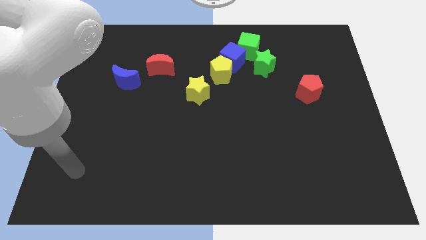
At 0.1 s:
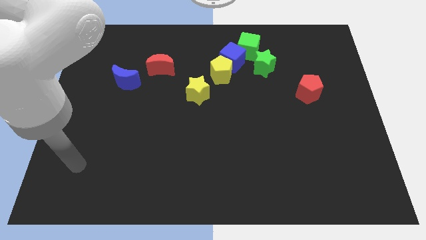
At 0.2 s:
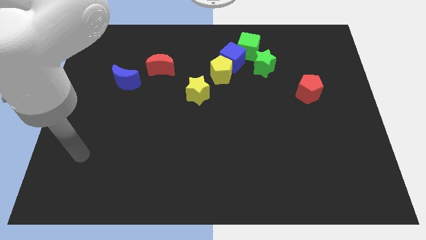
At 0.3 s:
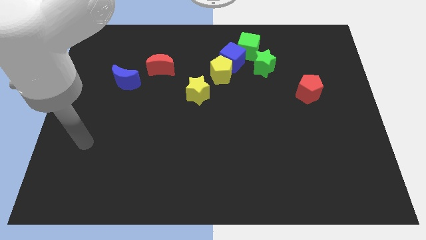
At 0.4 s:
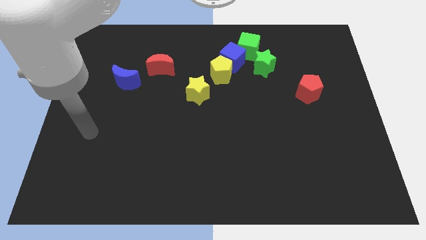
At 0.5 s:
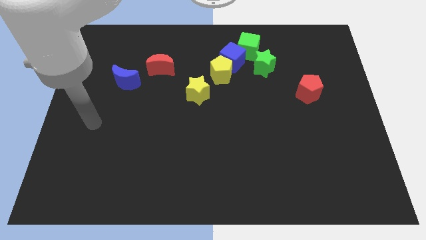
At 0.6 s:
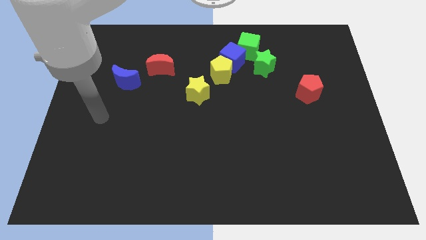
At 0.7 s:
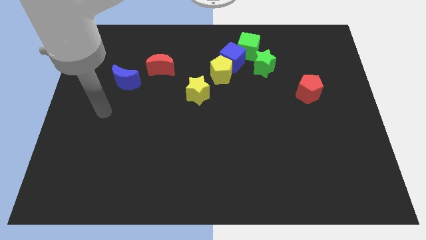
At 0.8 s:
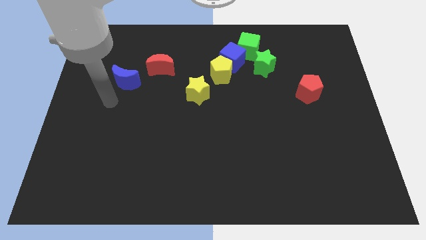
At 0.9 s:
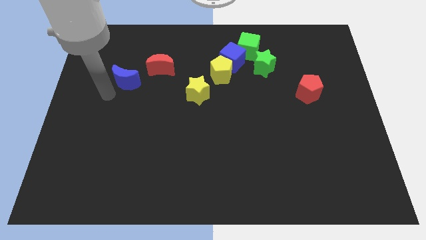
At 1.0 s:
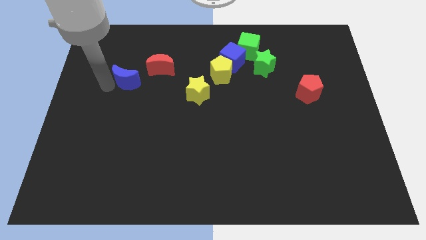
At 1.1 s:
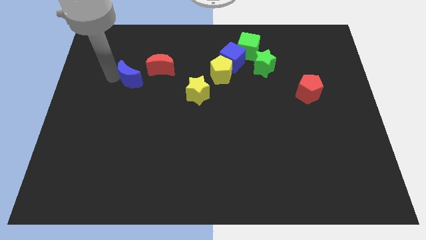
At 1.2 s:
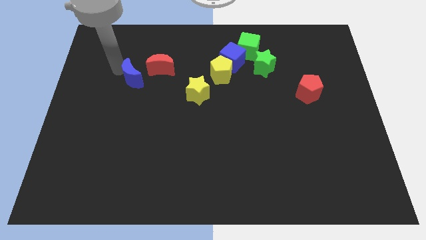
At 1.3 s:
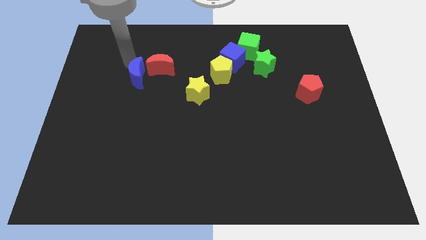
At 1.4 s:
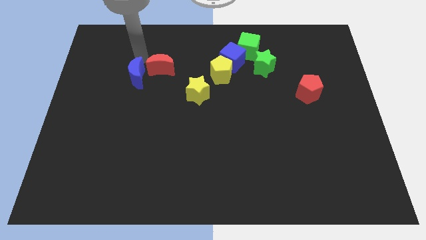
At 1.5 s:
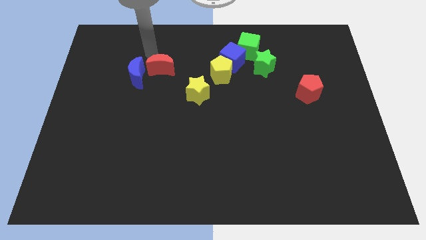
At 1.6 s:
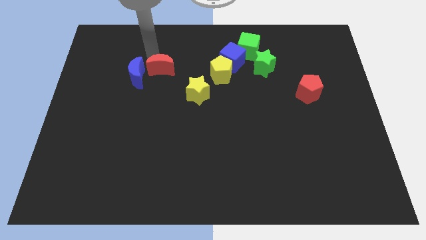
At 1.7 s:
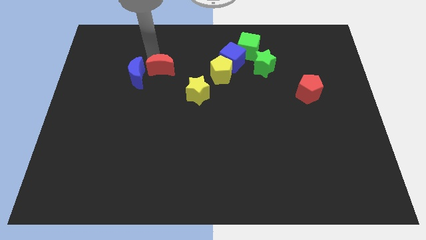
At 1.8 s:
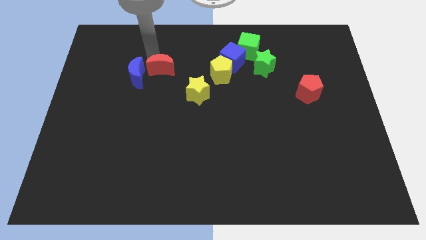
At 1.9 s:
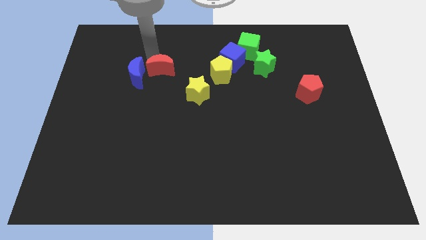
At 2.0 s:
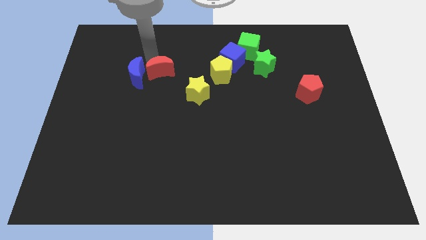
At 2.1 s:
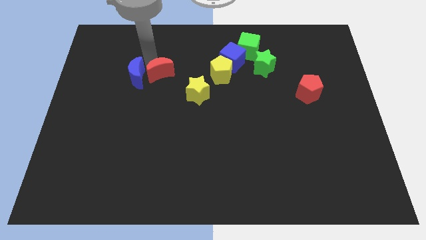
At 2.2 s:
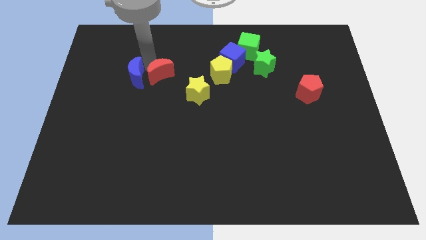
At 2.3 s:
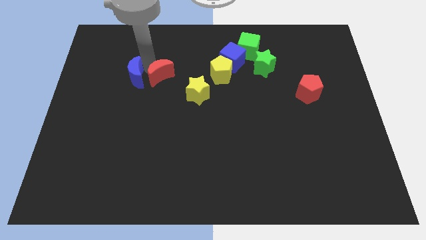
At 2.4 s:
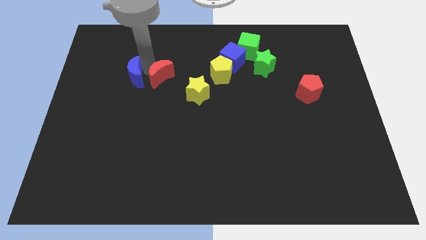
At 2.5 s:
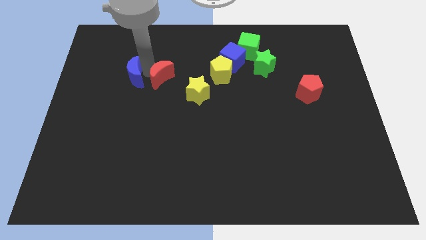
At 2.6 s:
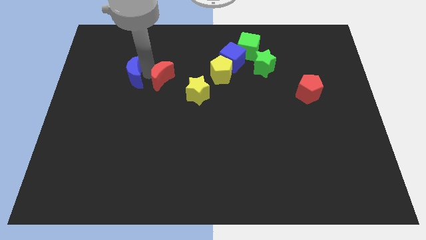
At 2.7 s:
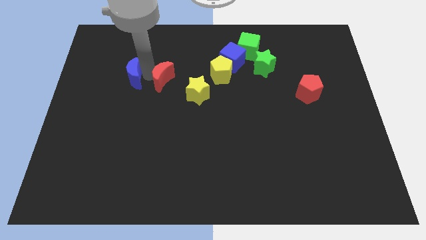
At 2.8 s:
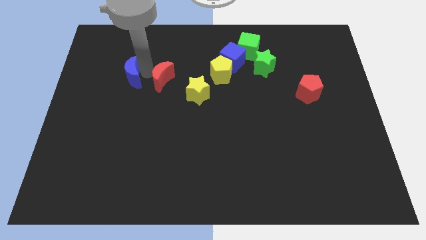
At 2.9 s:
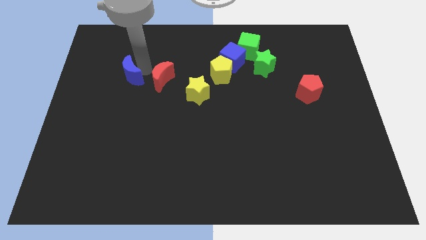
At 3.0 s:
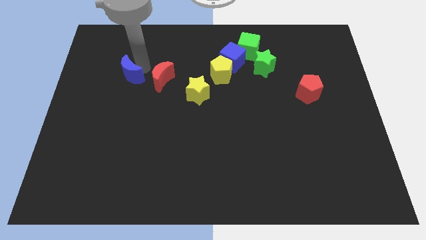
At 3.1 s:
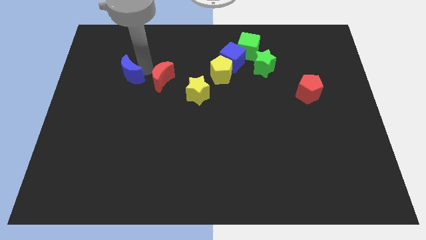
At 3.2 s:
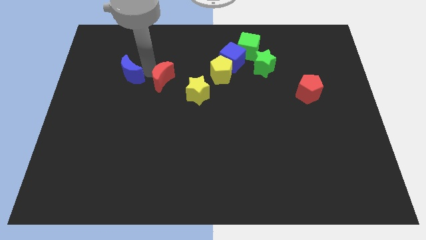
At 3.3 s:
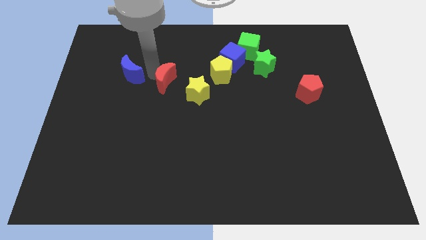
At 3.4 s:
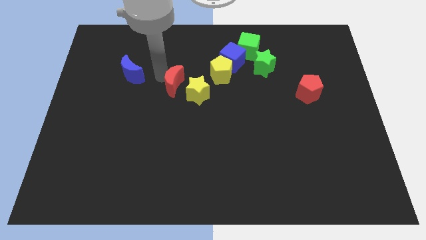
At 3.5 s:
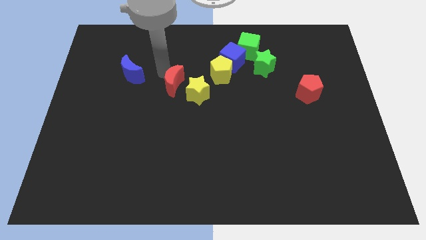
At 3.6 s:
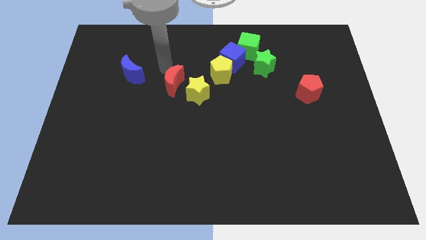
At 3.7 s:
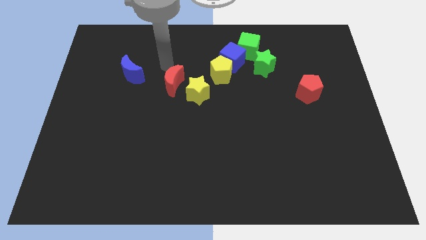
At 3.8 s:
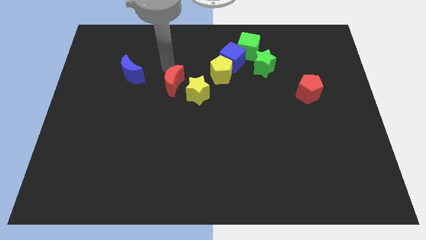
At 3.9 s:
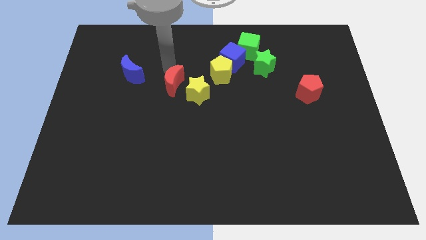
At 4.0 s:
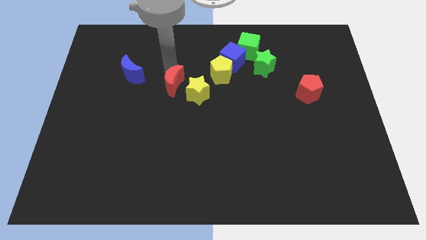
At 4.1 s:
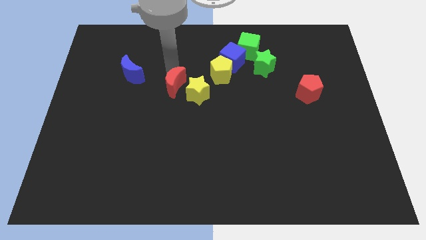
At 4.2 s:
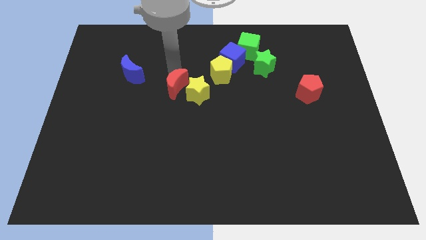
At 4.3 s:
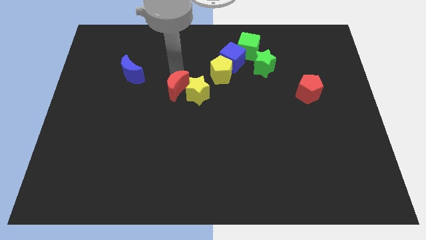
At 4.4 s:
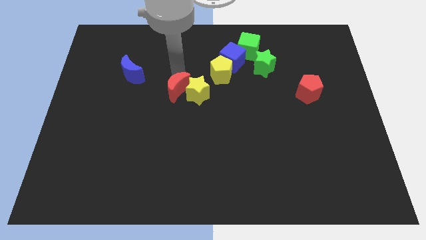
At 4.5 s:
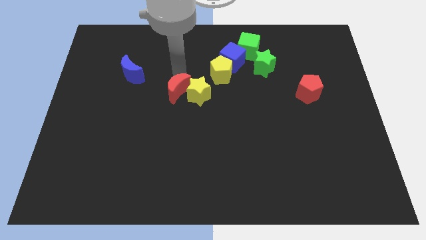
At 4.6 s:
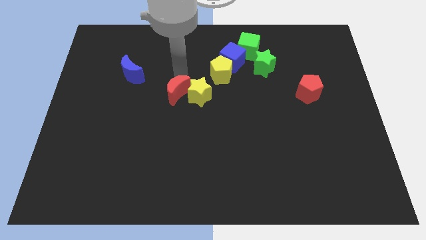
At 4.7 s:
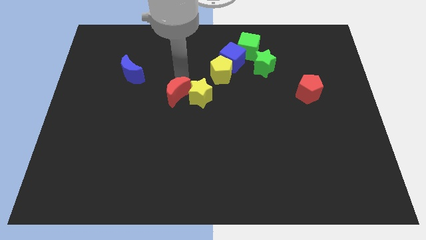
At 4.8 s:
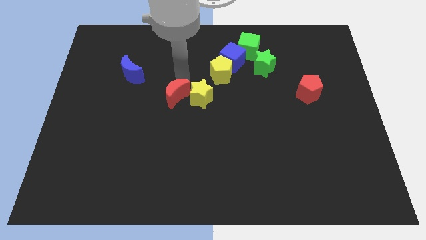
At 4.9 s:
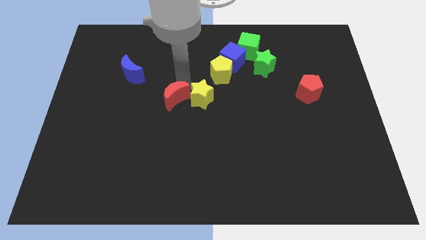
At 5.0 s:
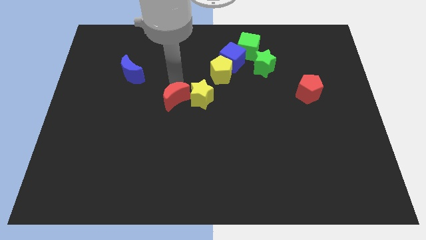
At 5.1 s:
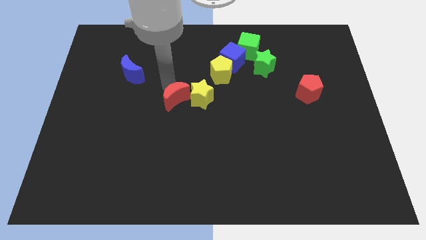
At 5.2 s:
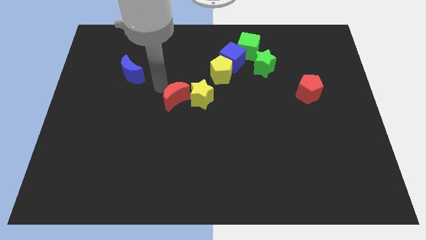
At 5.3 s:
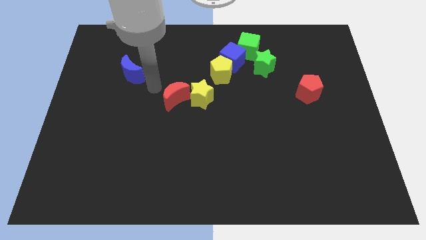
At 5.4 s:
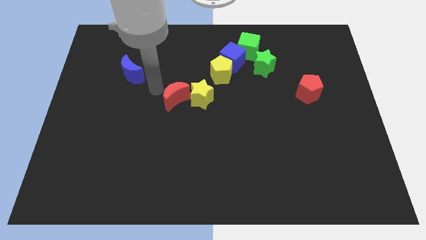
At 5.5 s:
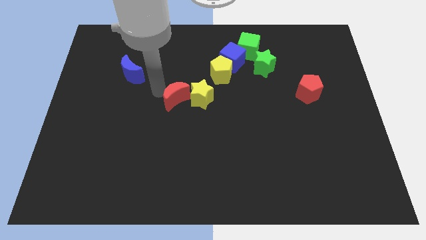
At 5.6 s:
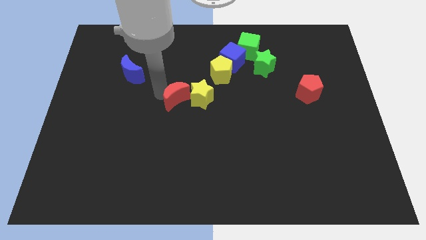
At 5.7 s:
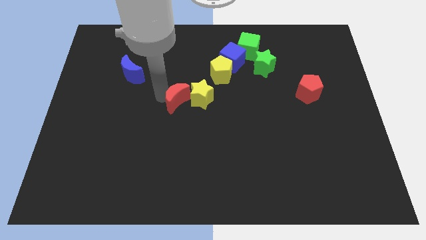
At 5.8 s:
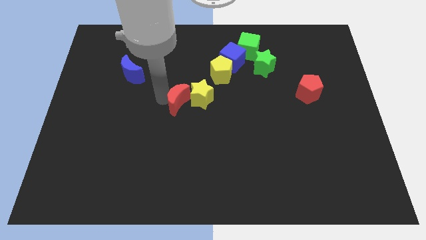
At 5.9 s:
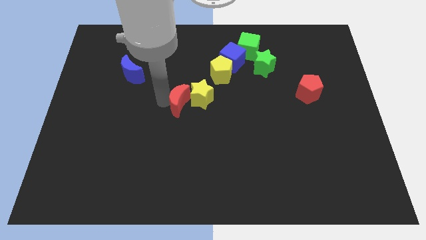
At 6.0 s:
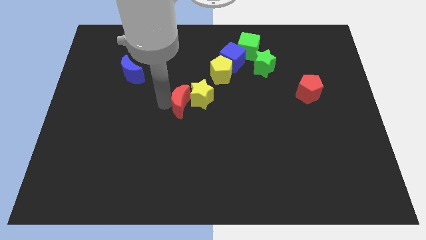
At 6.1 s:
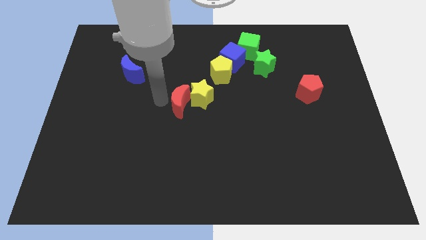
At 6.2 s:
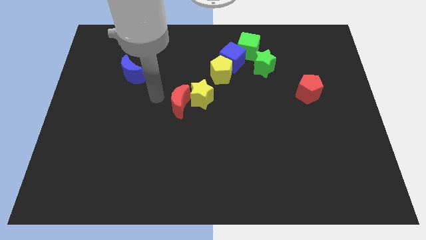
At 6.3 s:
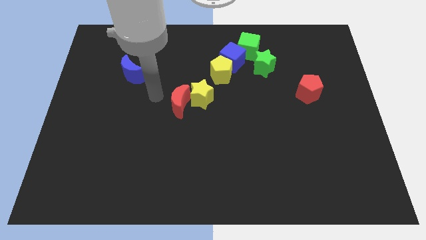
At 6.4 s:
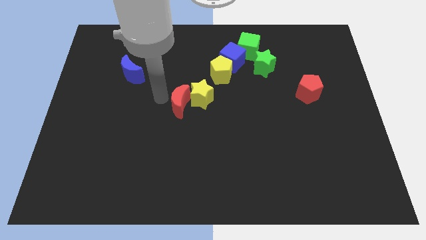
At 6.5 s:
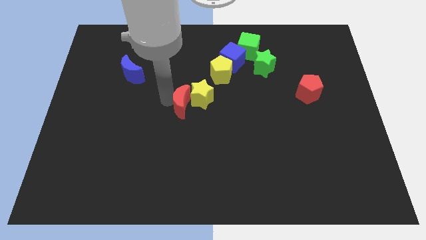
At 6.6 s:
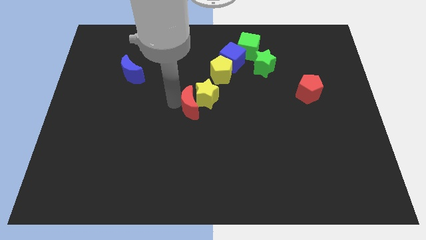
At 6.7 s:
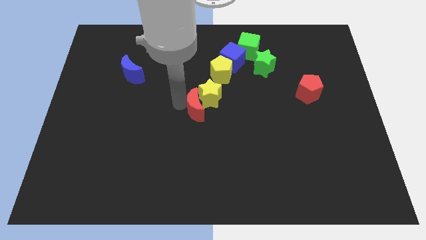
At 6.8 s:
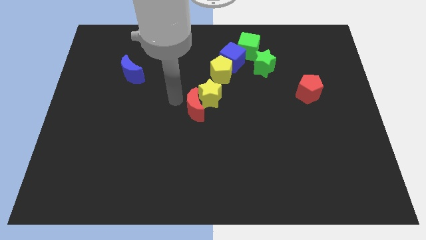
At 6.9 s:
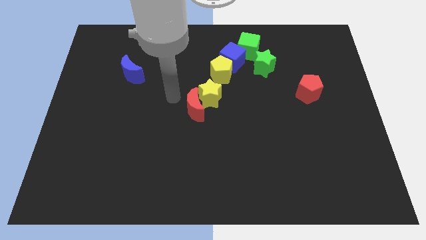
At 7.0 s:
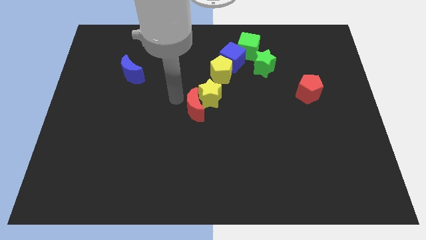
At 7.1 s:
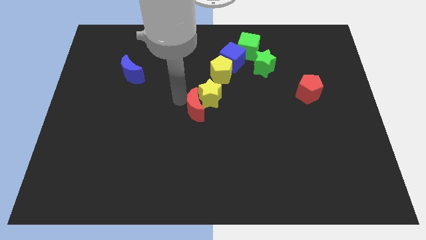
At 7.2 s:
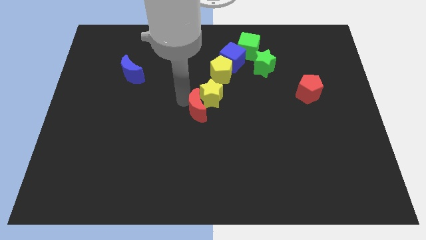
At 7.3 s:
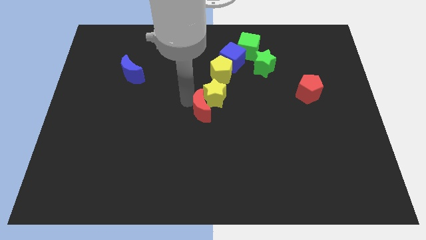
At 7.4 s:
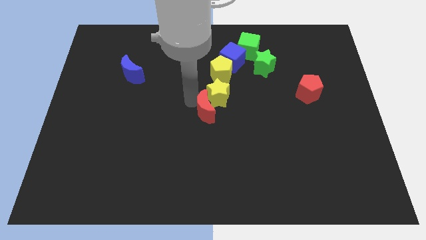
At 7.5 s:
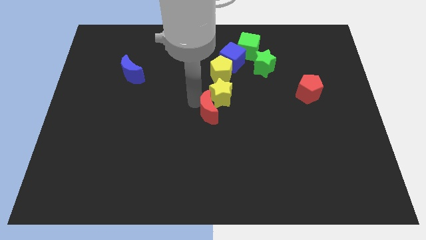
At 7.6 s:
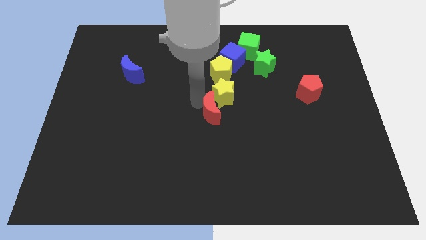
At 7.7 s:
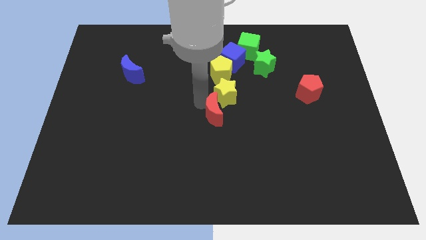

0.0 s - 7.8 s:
push the red moon downwards and then right
